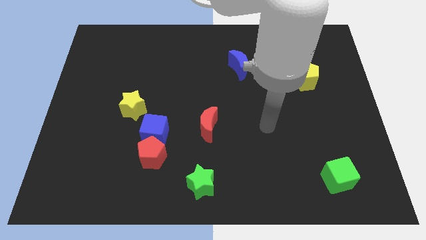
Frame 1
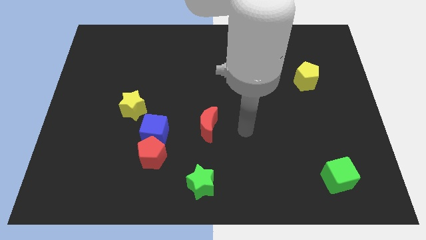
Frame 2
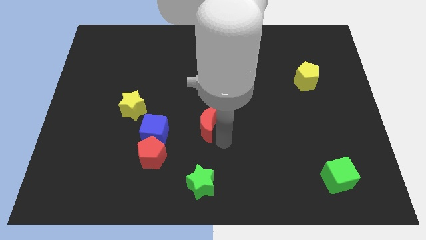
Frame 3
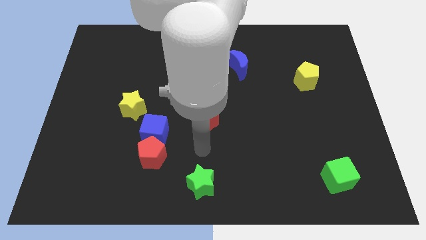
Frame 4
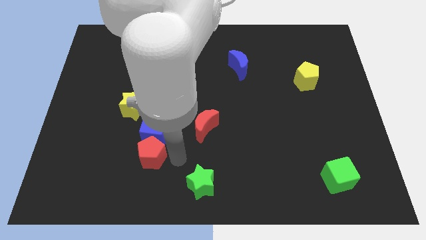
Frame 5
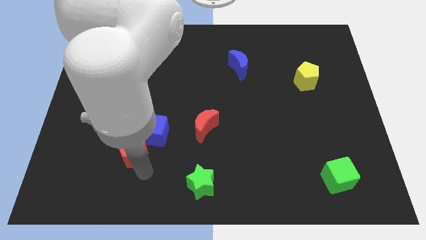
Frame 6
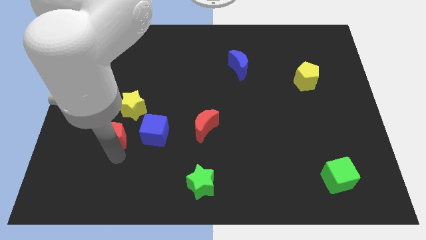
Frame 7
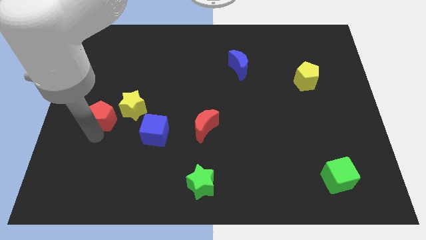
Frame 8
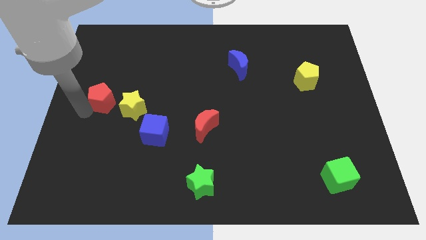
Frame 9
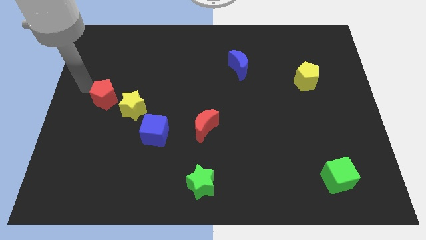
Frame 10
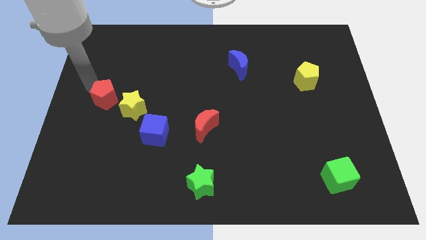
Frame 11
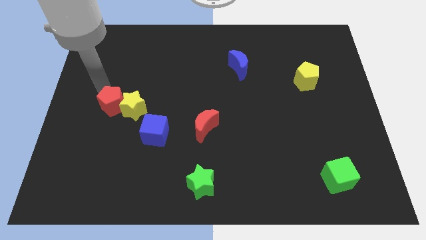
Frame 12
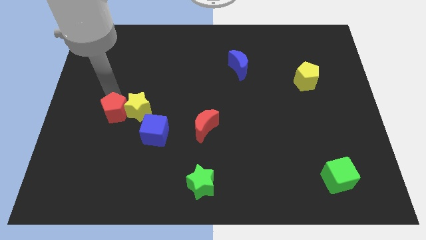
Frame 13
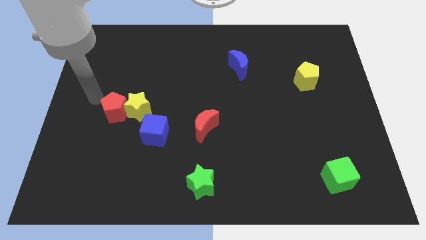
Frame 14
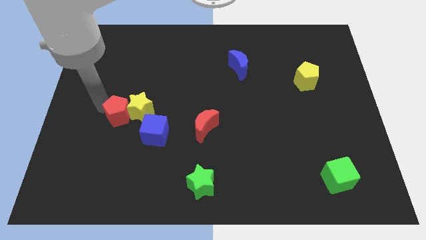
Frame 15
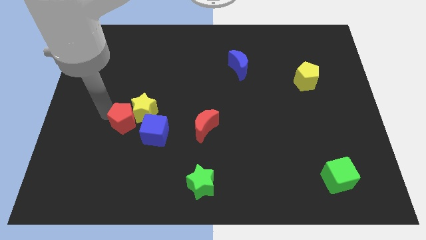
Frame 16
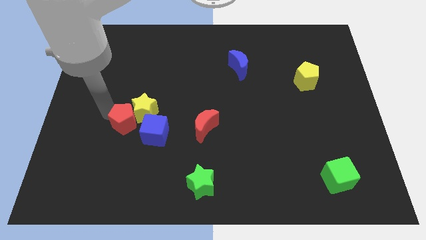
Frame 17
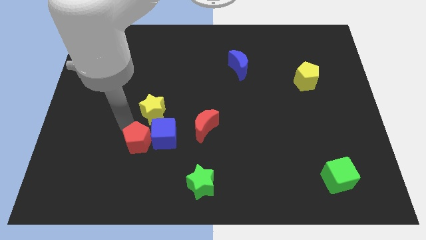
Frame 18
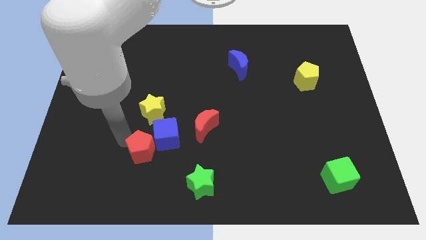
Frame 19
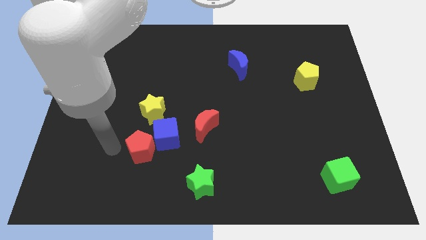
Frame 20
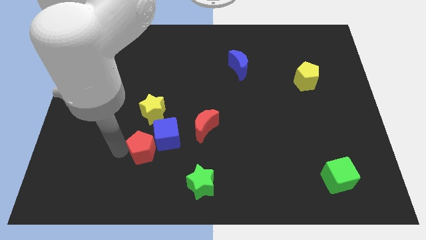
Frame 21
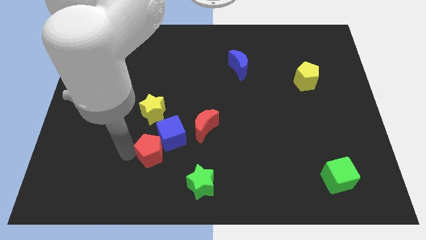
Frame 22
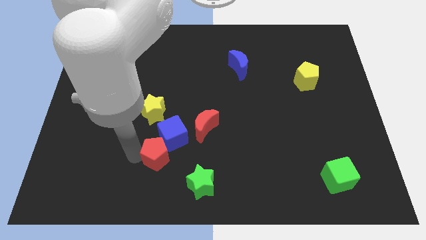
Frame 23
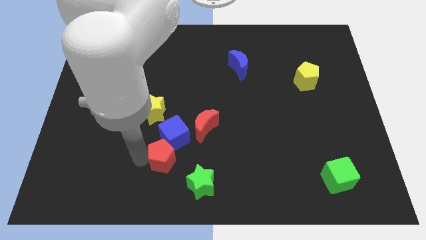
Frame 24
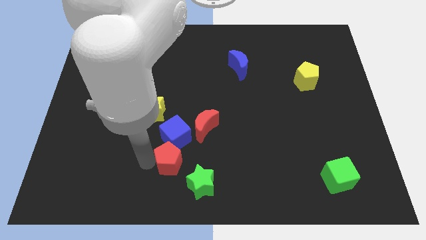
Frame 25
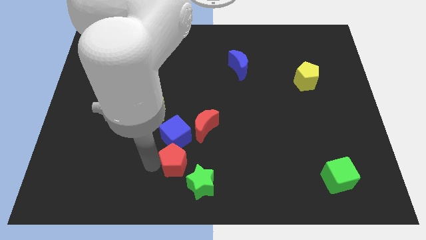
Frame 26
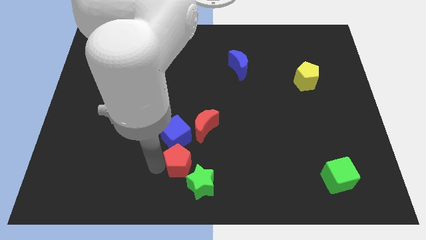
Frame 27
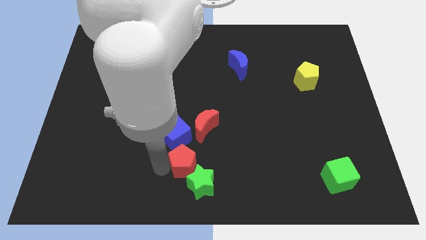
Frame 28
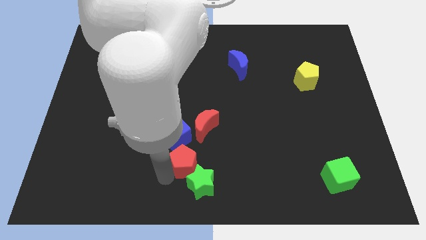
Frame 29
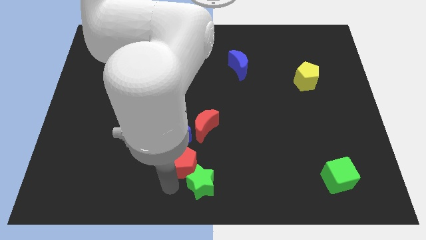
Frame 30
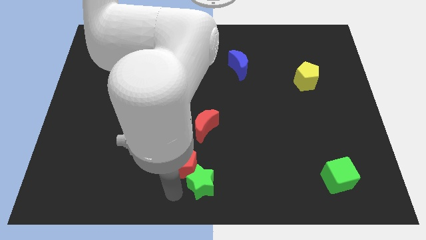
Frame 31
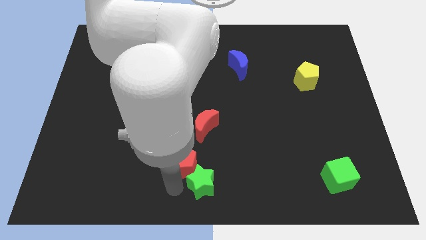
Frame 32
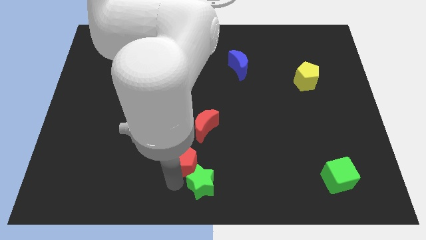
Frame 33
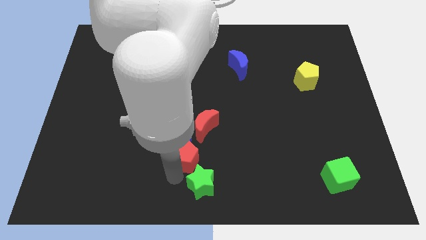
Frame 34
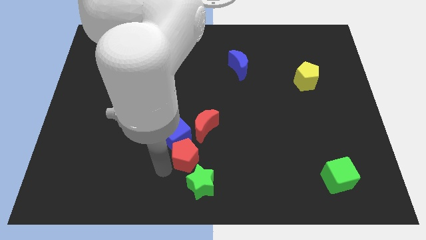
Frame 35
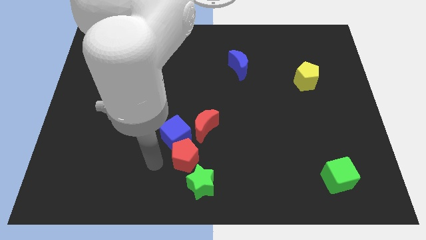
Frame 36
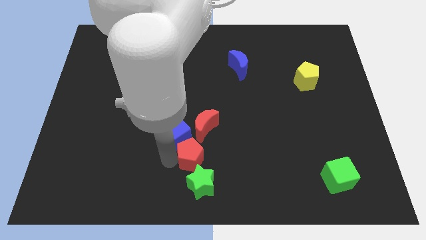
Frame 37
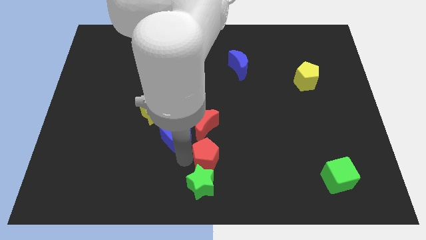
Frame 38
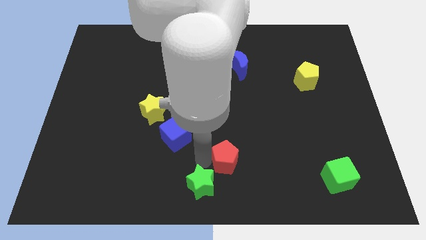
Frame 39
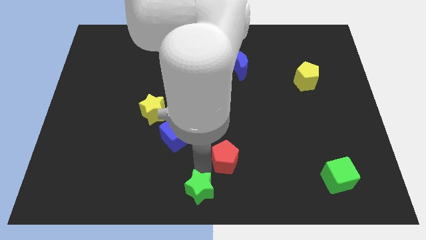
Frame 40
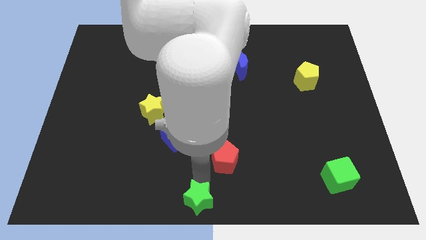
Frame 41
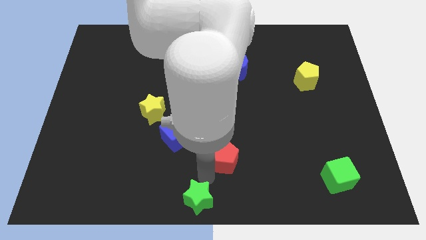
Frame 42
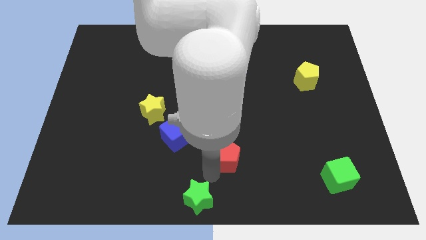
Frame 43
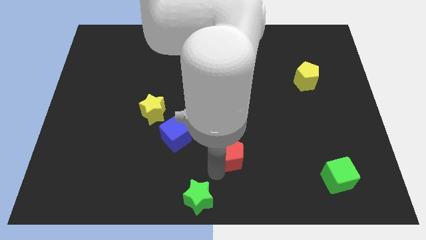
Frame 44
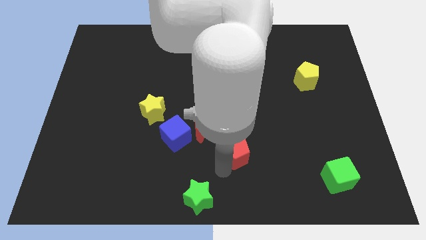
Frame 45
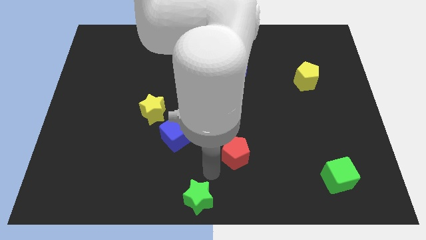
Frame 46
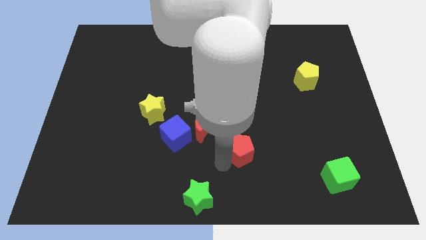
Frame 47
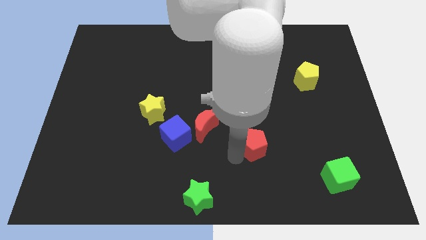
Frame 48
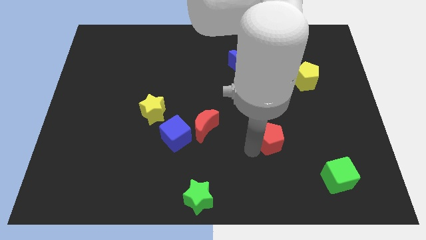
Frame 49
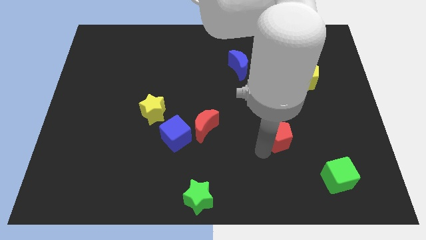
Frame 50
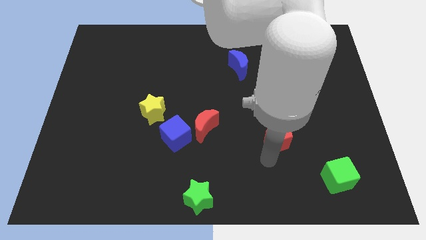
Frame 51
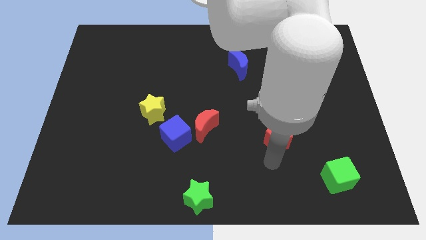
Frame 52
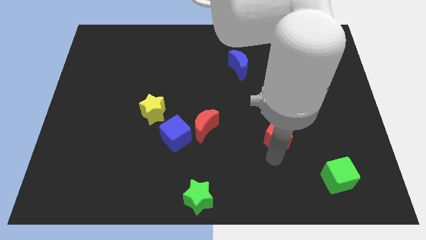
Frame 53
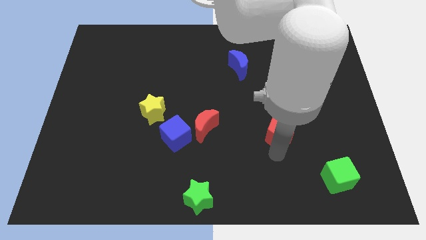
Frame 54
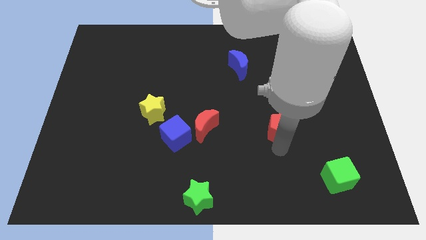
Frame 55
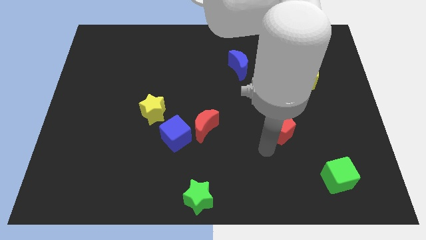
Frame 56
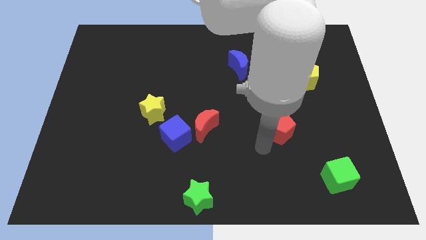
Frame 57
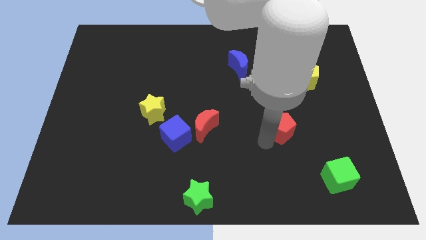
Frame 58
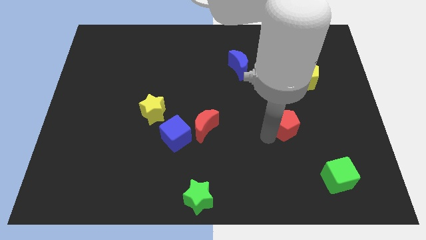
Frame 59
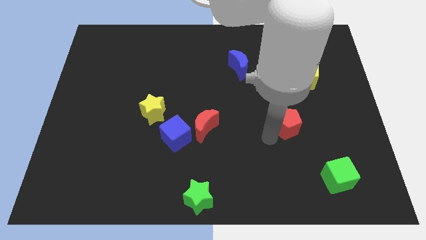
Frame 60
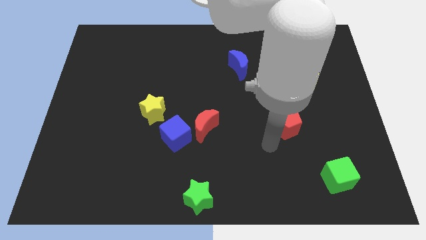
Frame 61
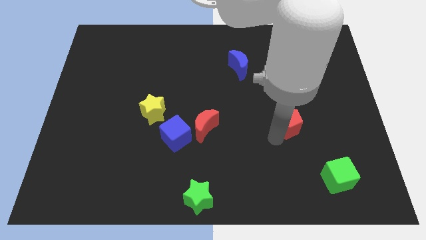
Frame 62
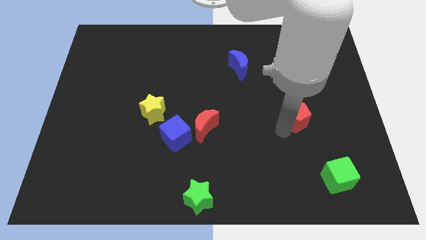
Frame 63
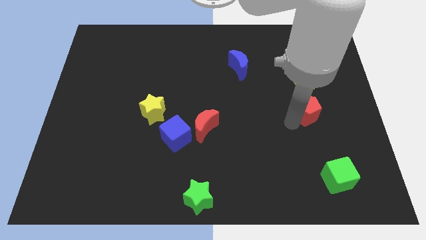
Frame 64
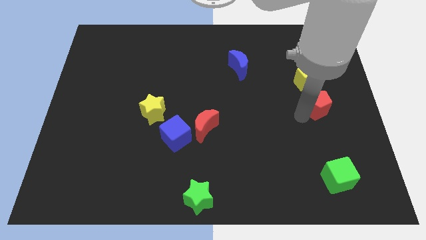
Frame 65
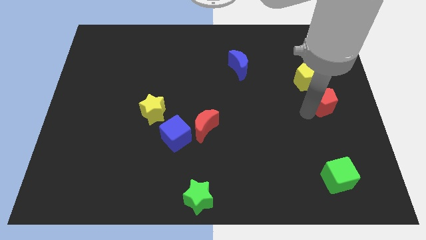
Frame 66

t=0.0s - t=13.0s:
move the red pentagon to the bottom right side of the yellow pentagon

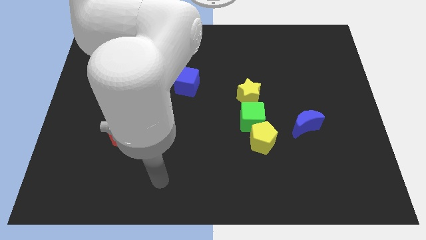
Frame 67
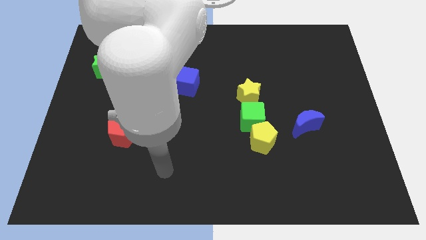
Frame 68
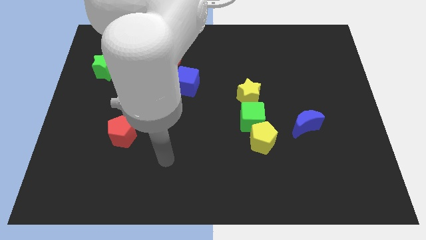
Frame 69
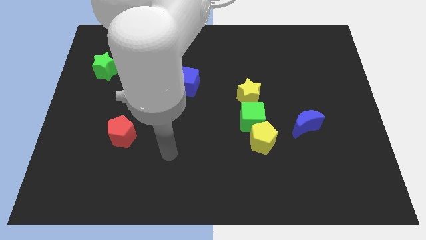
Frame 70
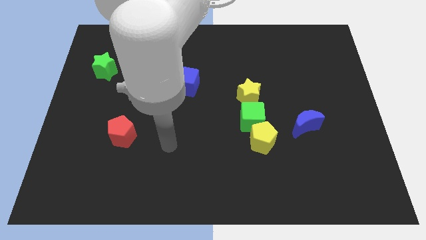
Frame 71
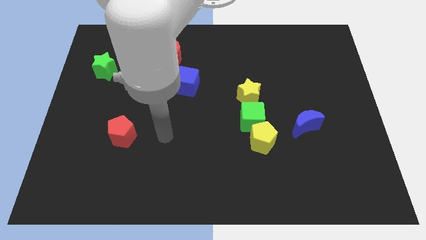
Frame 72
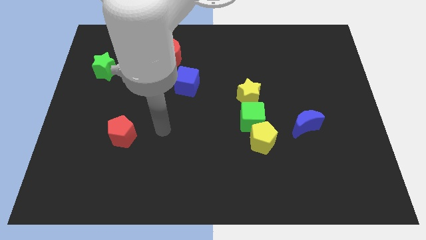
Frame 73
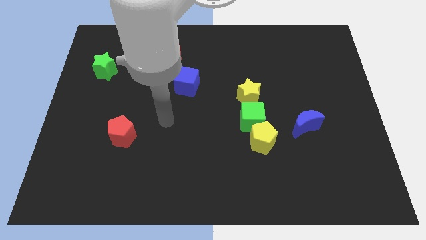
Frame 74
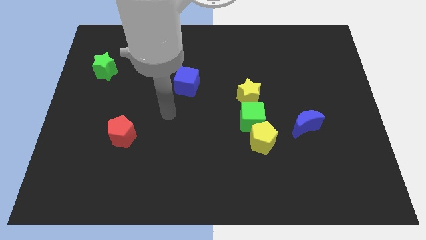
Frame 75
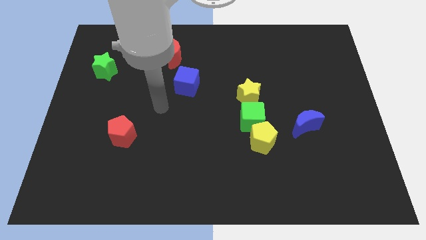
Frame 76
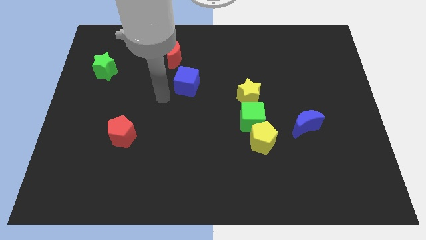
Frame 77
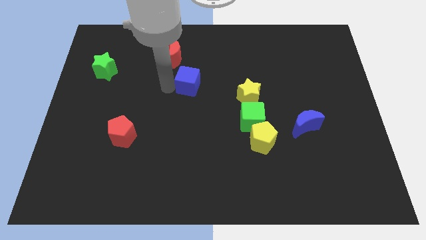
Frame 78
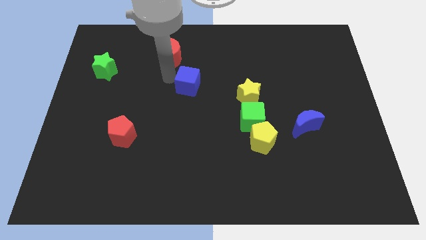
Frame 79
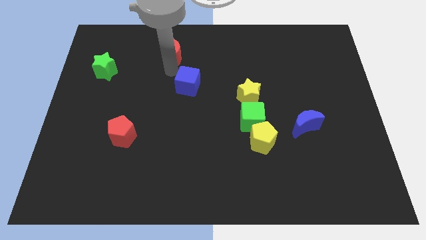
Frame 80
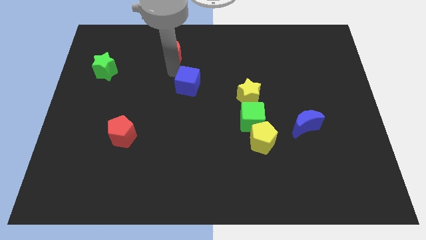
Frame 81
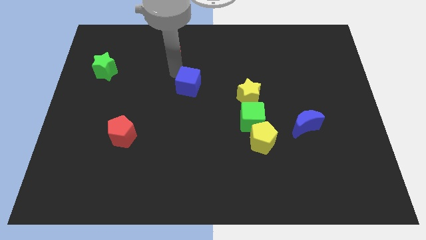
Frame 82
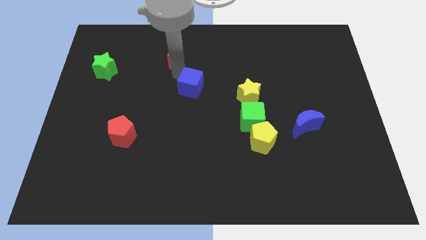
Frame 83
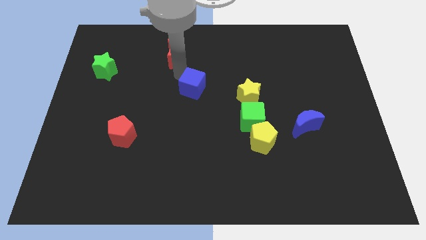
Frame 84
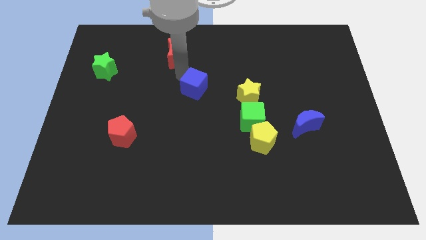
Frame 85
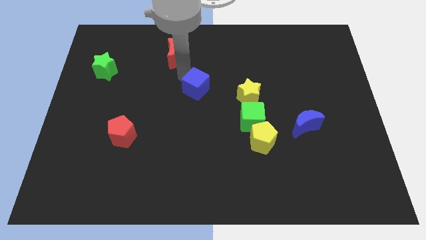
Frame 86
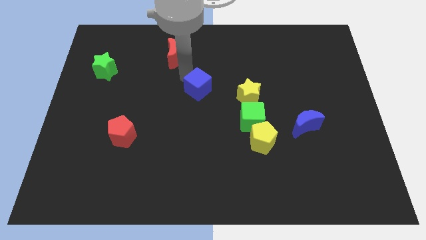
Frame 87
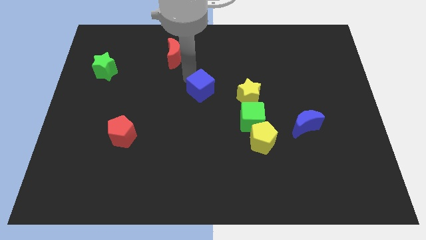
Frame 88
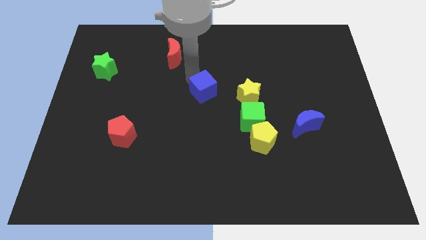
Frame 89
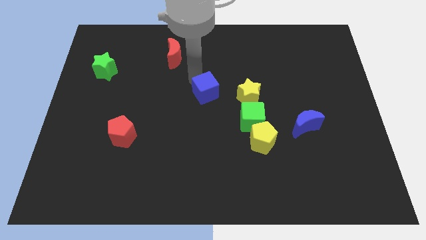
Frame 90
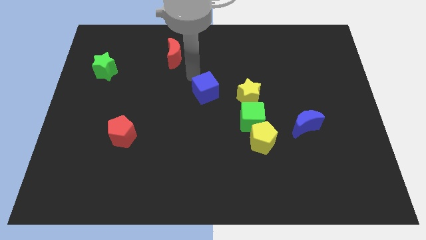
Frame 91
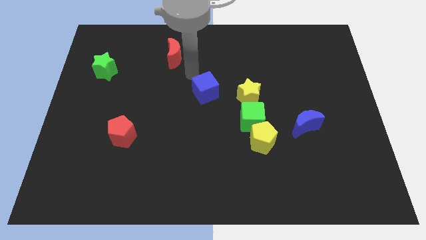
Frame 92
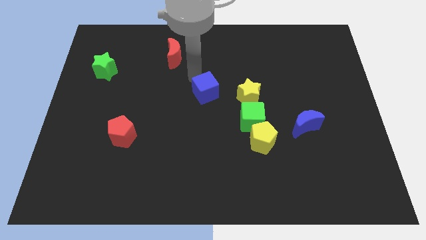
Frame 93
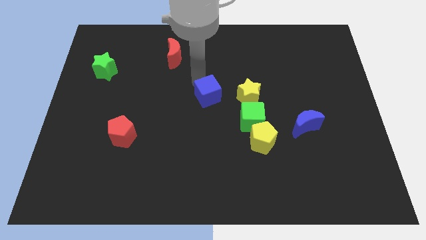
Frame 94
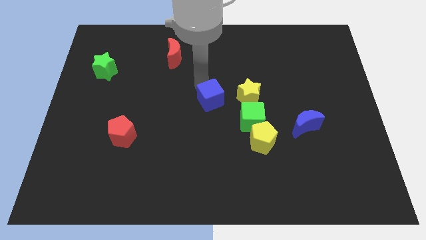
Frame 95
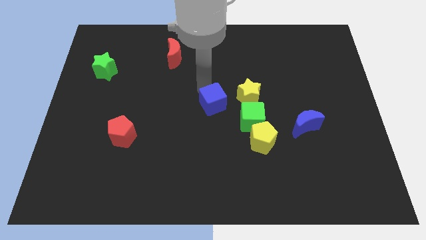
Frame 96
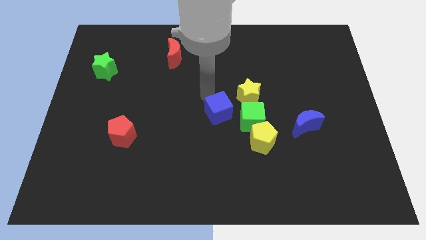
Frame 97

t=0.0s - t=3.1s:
push the blue cube diagonally up and to the left of the yellow pentagon
